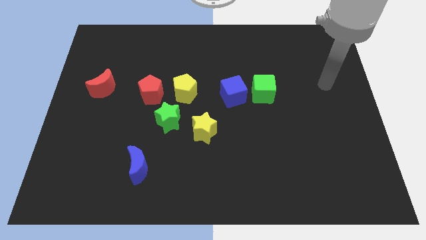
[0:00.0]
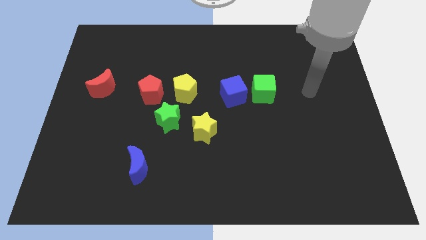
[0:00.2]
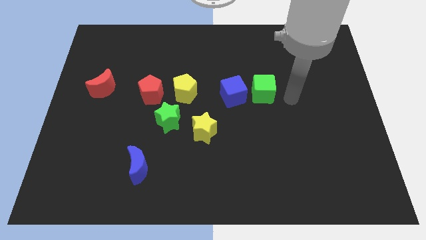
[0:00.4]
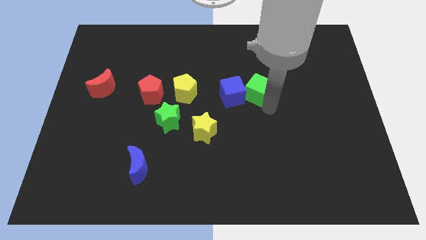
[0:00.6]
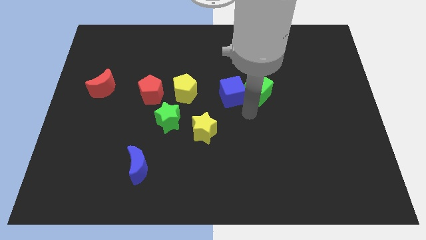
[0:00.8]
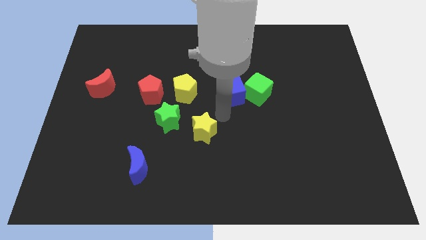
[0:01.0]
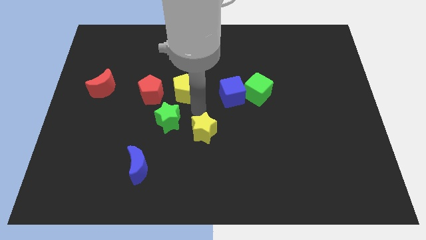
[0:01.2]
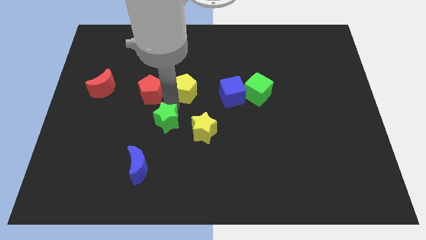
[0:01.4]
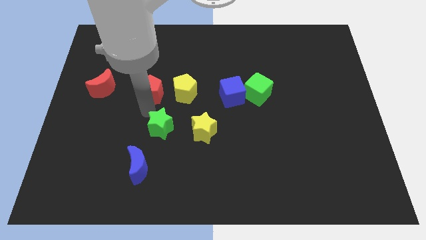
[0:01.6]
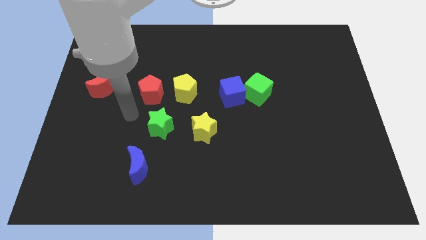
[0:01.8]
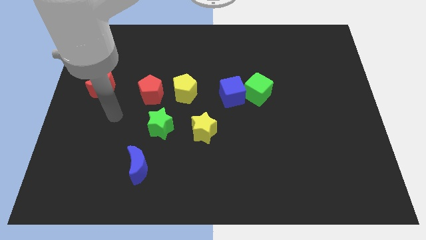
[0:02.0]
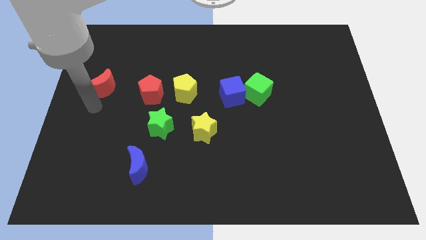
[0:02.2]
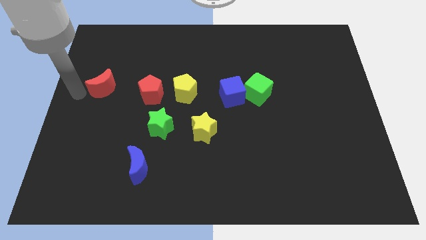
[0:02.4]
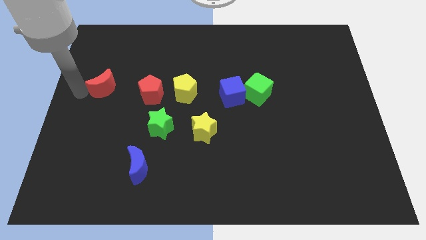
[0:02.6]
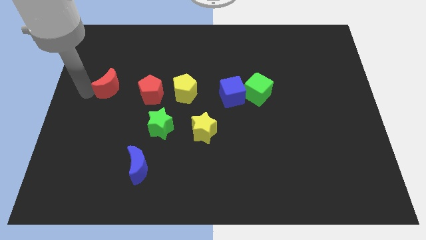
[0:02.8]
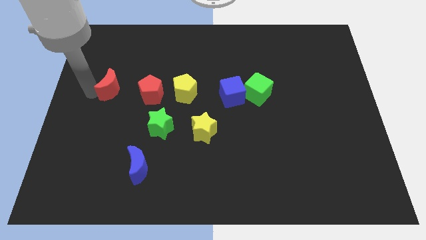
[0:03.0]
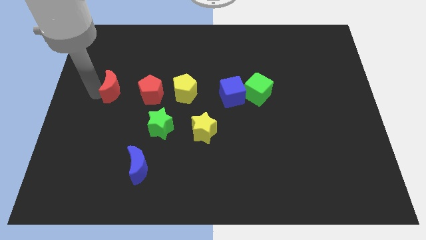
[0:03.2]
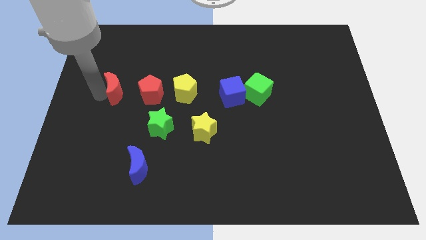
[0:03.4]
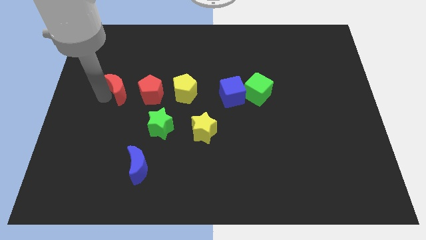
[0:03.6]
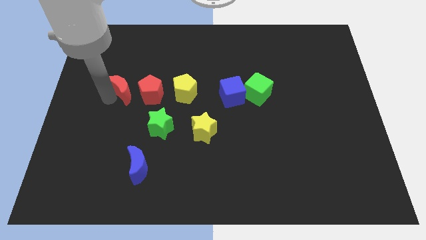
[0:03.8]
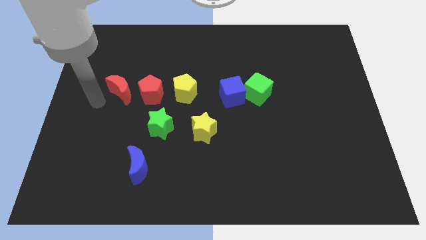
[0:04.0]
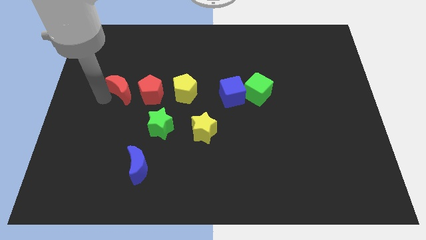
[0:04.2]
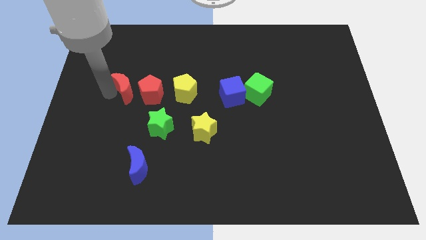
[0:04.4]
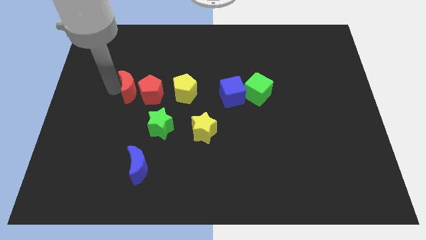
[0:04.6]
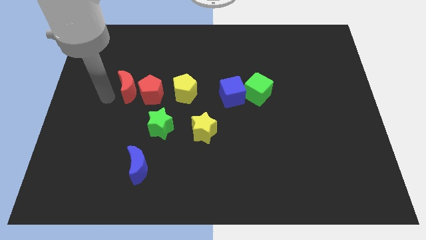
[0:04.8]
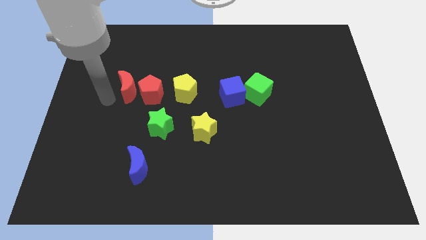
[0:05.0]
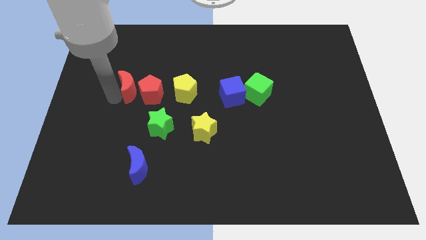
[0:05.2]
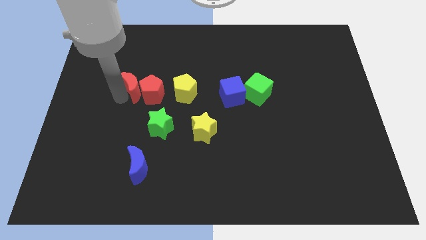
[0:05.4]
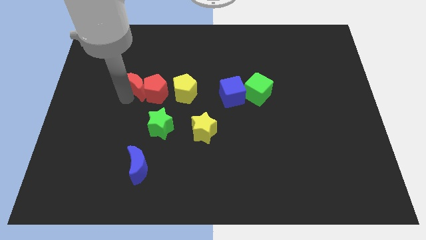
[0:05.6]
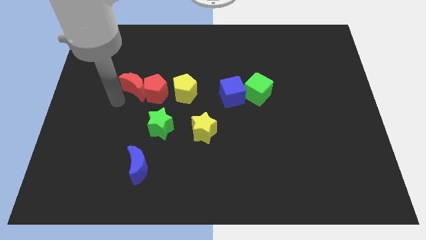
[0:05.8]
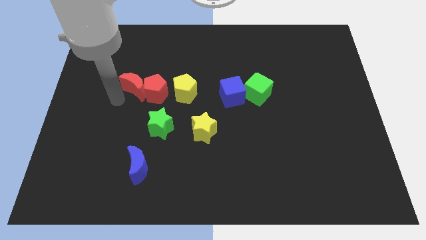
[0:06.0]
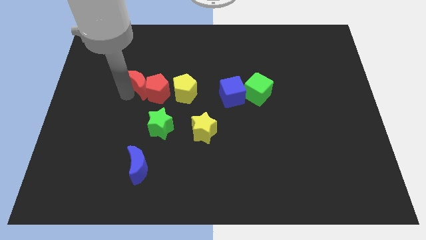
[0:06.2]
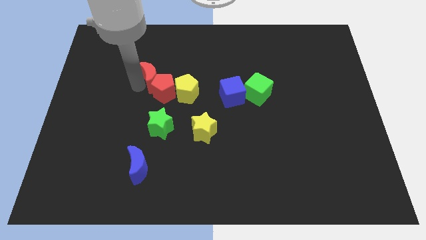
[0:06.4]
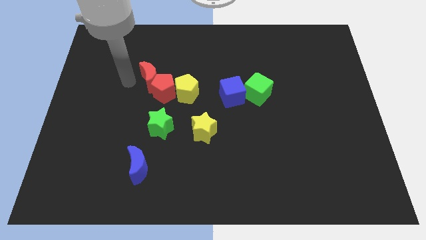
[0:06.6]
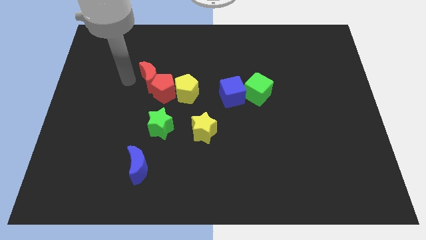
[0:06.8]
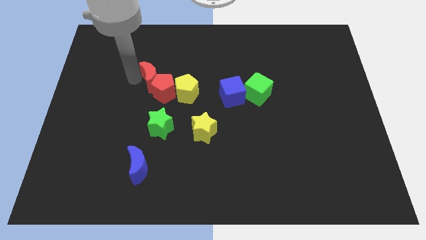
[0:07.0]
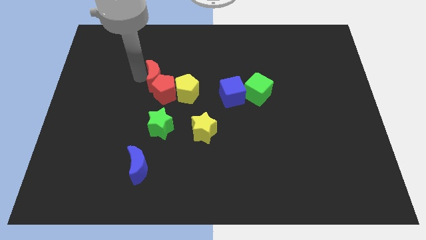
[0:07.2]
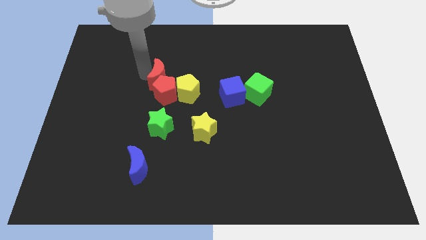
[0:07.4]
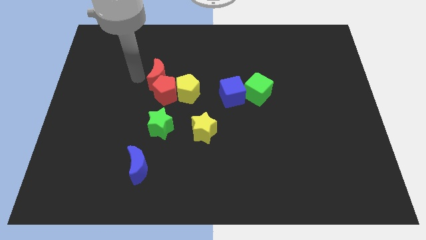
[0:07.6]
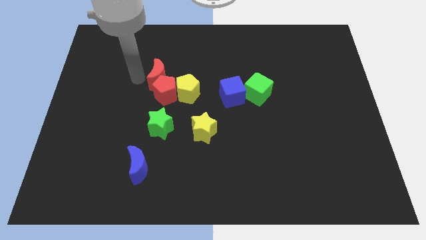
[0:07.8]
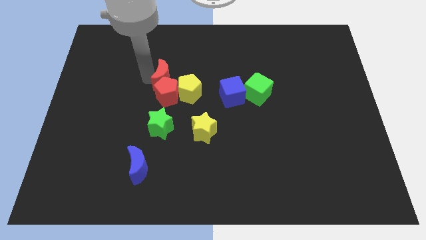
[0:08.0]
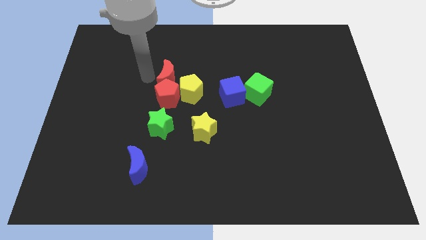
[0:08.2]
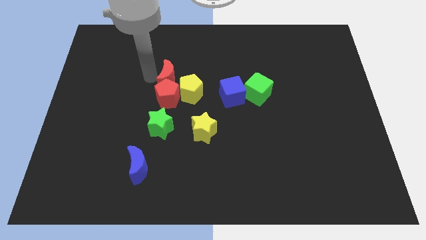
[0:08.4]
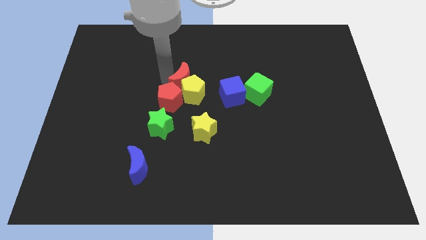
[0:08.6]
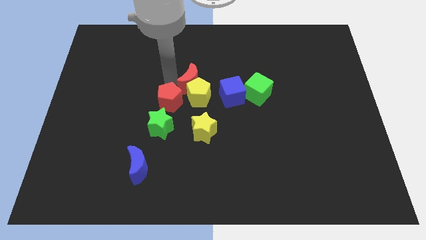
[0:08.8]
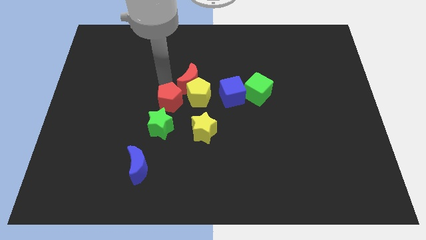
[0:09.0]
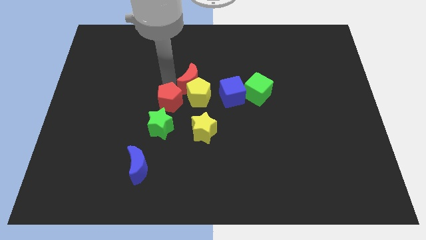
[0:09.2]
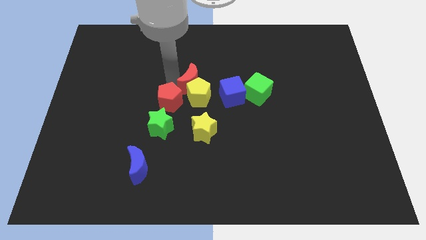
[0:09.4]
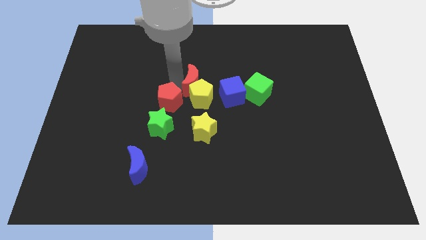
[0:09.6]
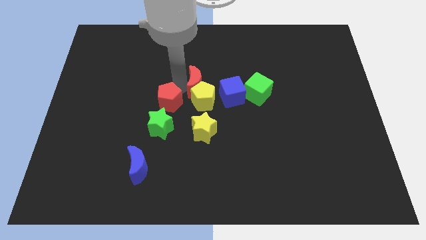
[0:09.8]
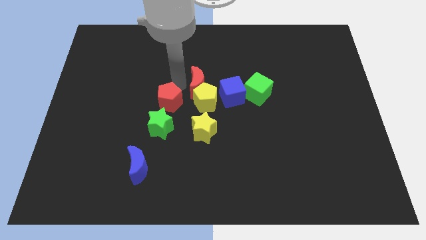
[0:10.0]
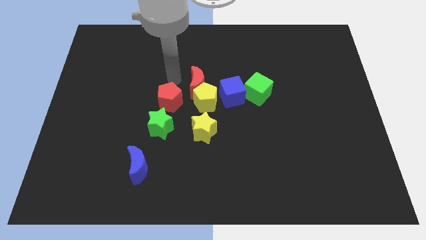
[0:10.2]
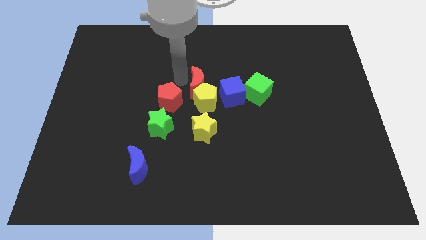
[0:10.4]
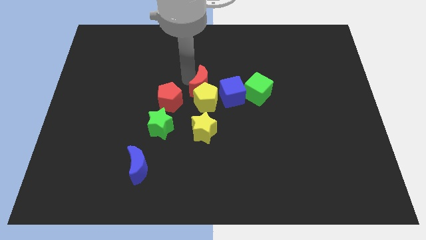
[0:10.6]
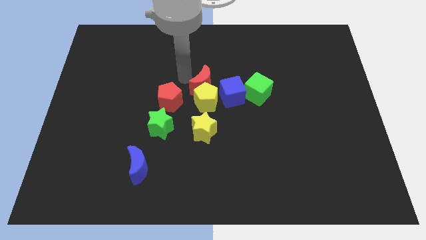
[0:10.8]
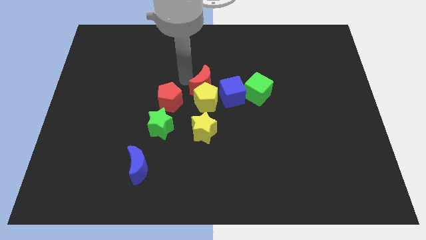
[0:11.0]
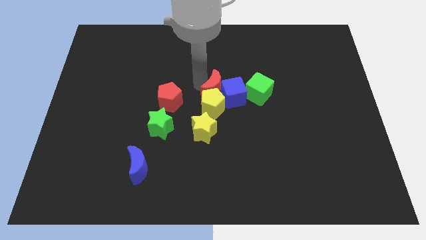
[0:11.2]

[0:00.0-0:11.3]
put the red moon towards the blue cube

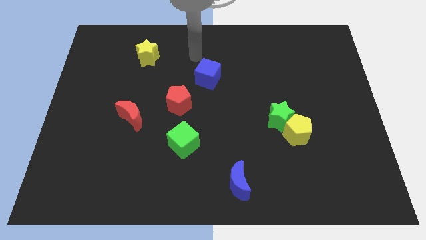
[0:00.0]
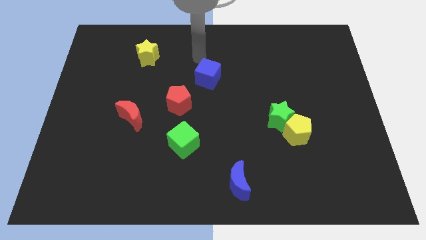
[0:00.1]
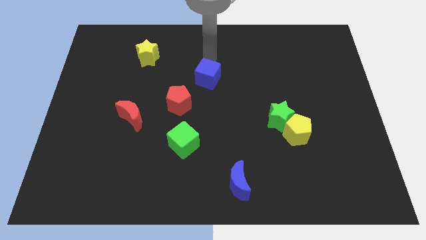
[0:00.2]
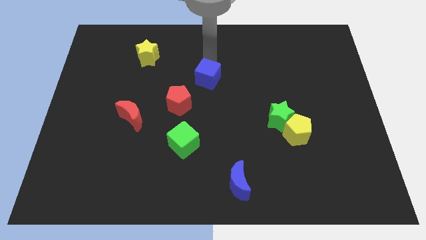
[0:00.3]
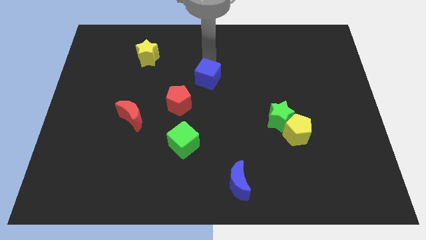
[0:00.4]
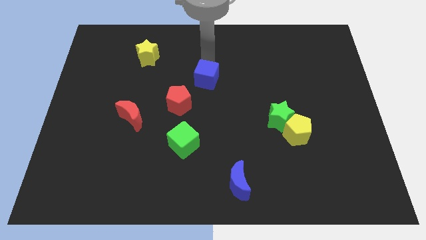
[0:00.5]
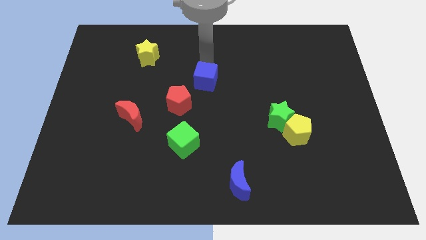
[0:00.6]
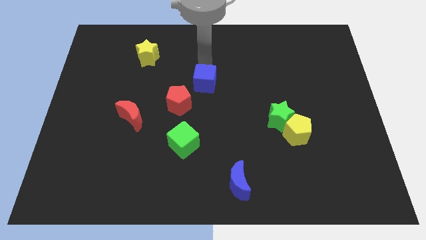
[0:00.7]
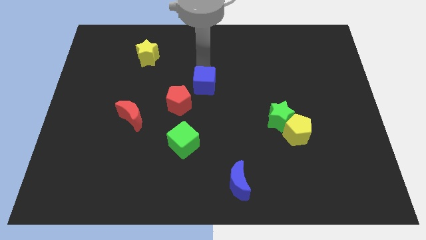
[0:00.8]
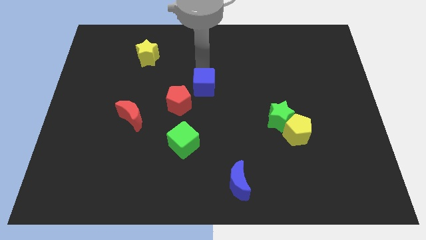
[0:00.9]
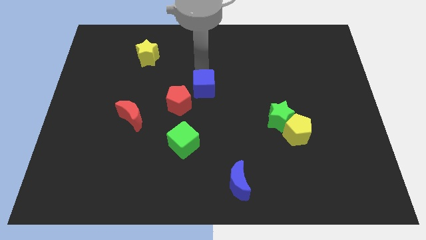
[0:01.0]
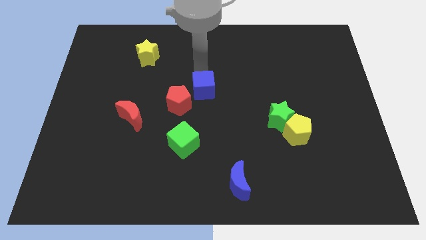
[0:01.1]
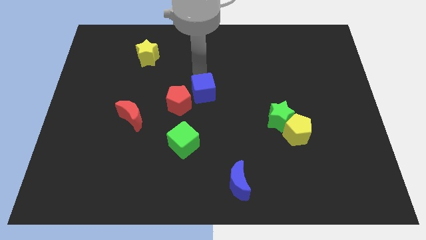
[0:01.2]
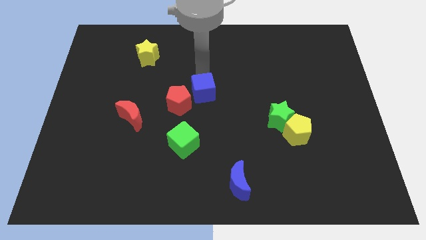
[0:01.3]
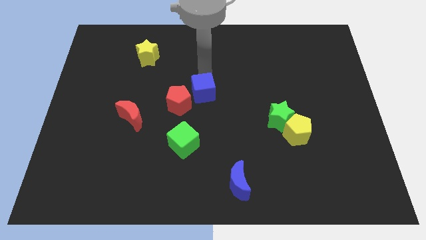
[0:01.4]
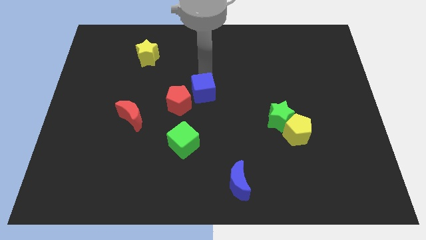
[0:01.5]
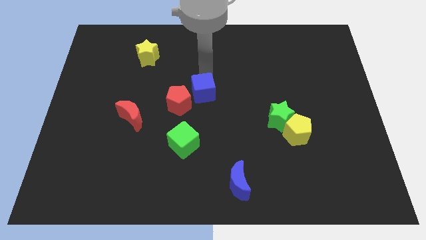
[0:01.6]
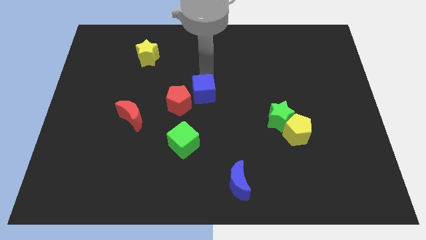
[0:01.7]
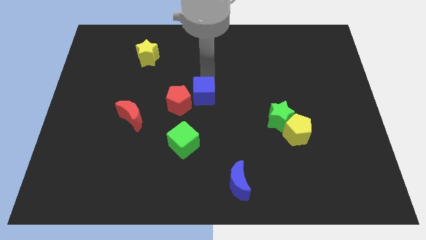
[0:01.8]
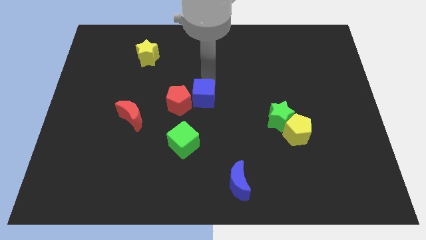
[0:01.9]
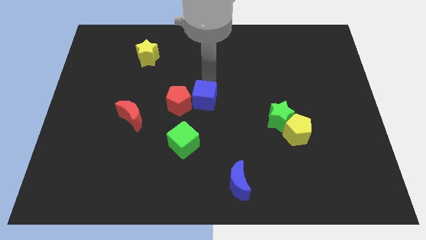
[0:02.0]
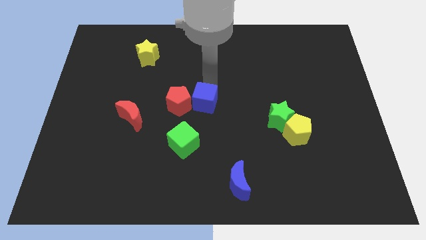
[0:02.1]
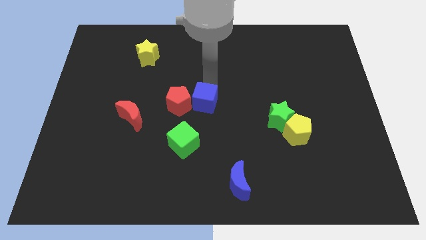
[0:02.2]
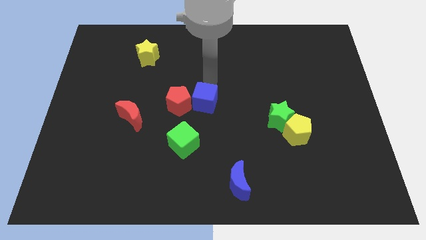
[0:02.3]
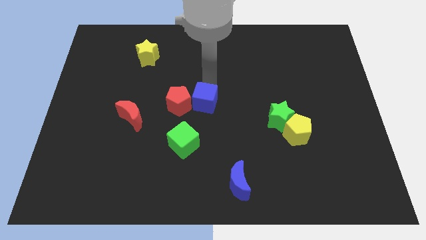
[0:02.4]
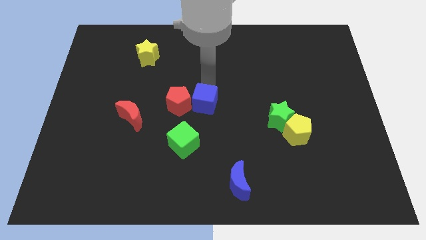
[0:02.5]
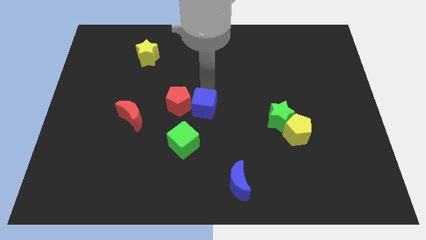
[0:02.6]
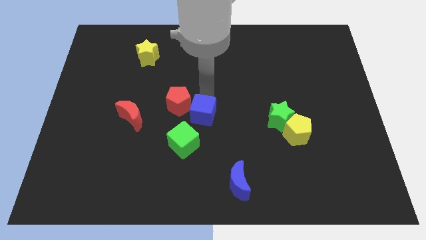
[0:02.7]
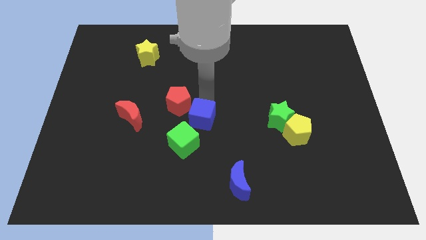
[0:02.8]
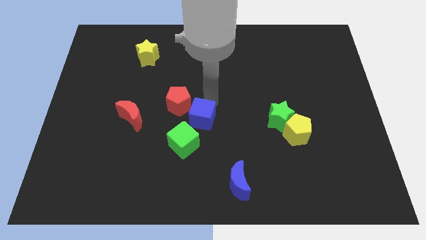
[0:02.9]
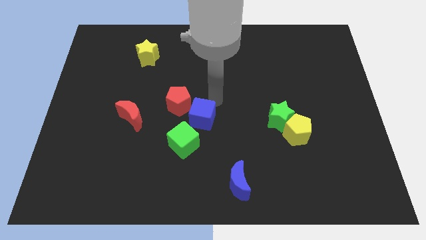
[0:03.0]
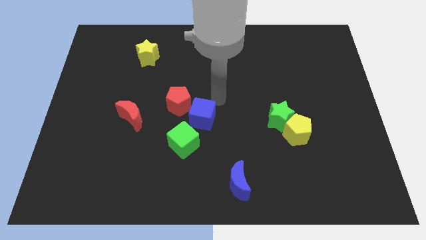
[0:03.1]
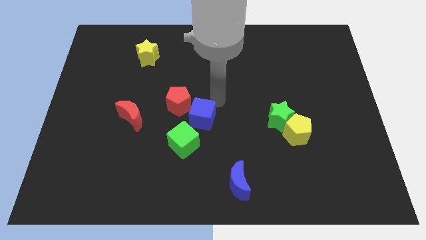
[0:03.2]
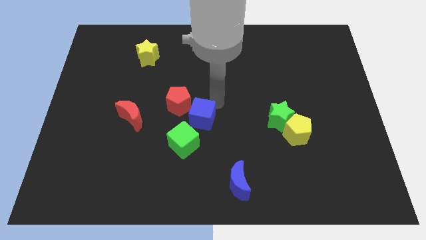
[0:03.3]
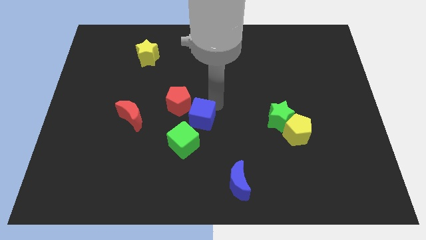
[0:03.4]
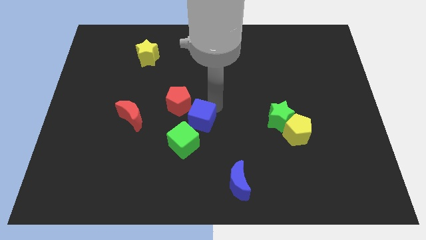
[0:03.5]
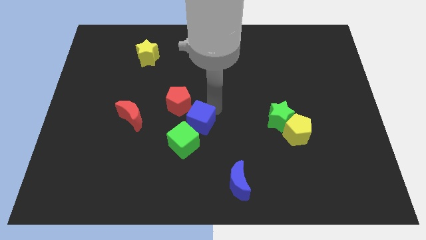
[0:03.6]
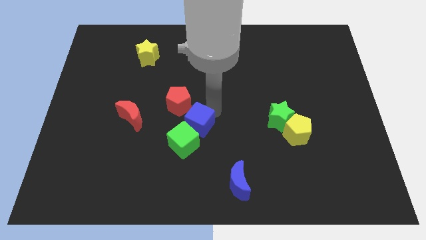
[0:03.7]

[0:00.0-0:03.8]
move the blue cube next to the green cube
